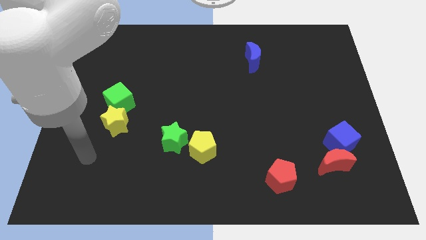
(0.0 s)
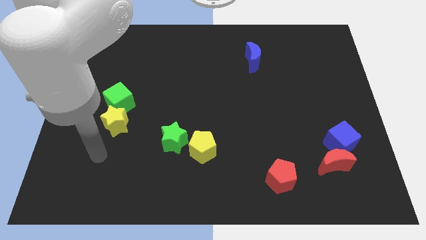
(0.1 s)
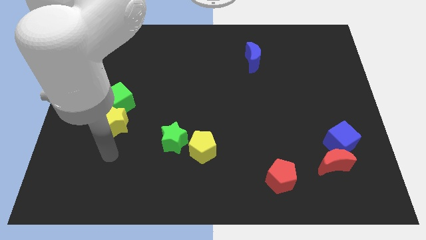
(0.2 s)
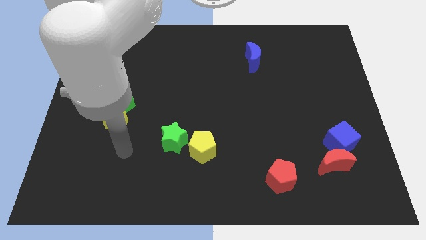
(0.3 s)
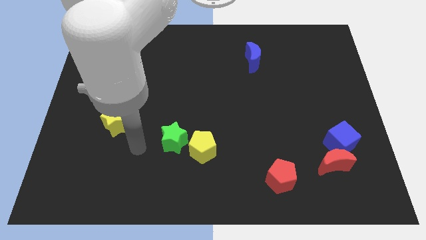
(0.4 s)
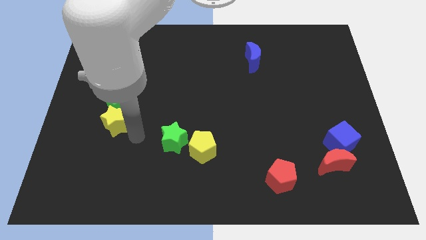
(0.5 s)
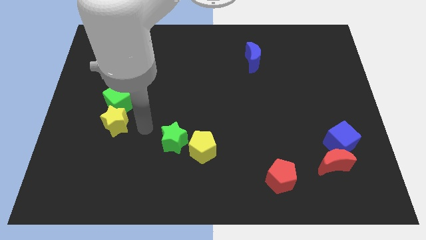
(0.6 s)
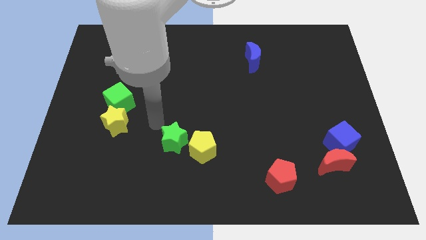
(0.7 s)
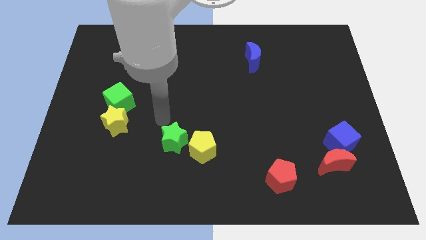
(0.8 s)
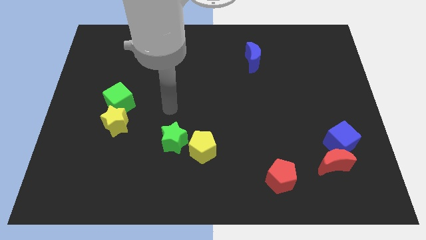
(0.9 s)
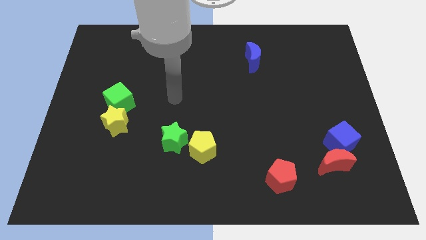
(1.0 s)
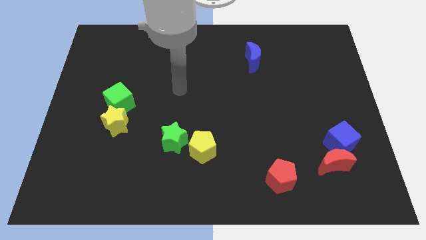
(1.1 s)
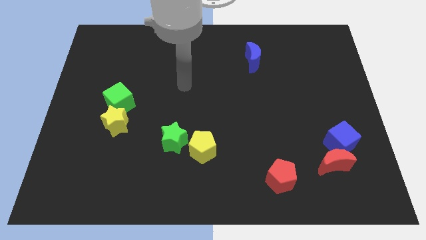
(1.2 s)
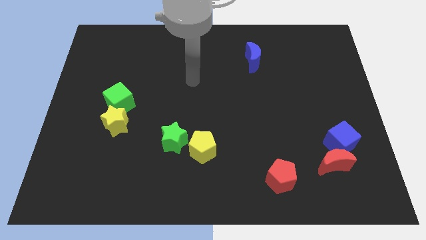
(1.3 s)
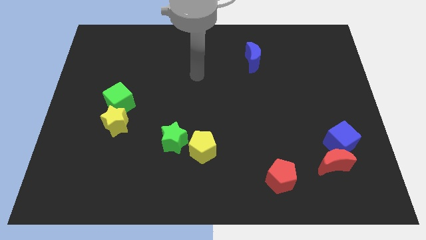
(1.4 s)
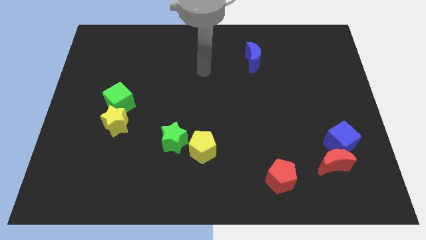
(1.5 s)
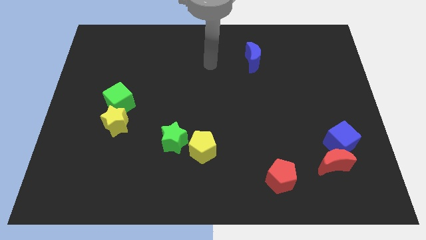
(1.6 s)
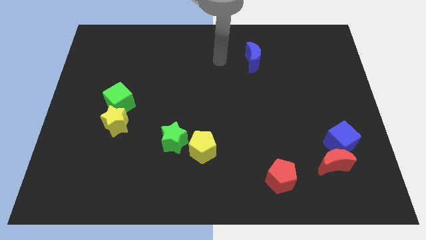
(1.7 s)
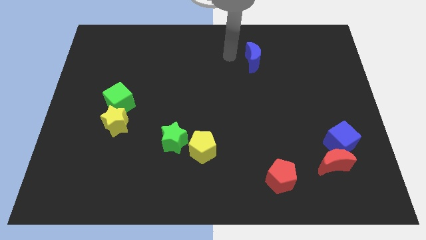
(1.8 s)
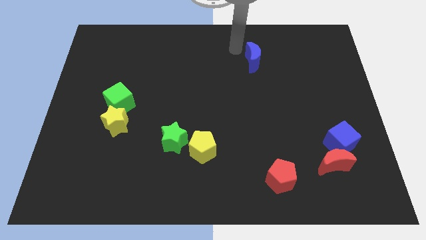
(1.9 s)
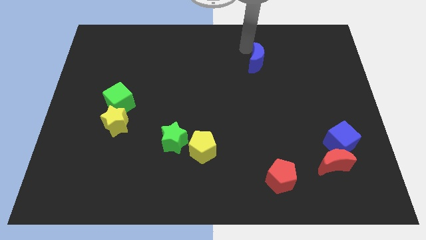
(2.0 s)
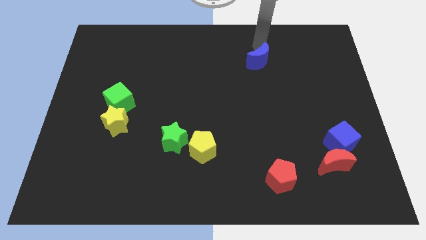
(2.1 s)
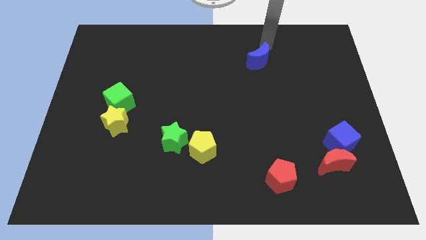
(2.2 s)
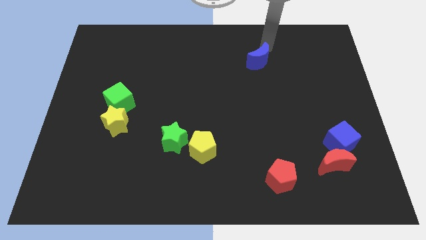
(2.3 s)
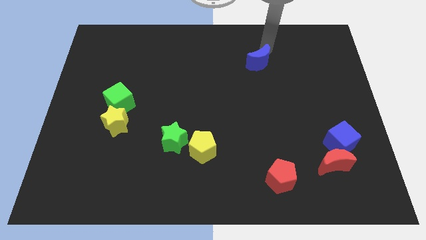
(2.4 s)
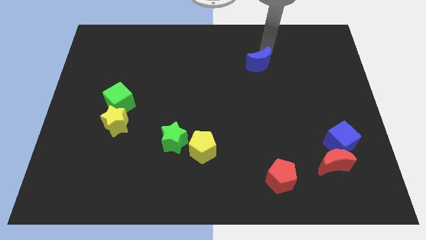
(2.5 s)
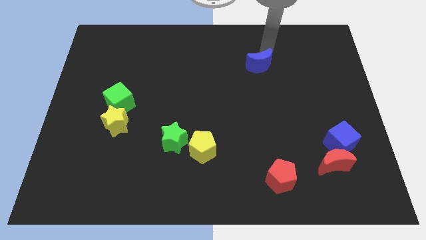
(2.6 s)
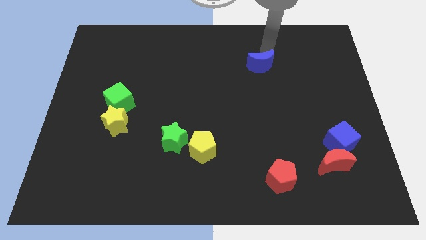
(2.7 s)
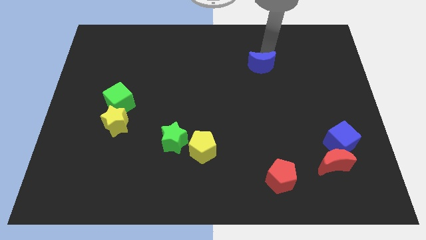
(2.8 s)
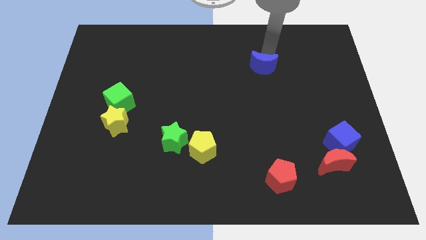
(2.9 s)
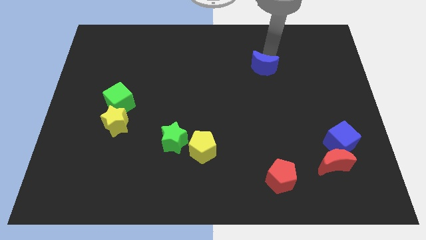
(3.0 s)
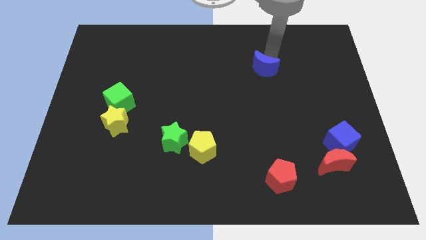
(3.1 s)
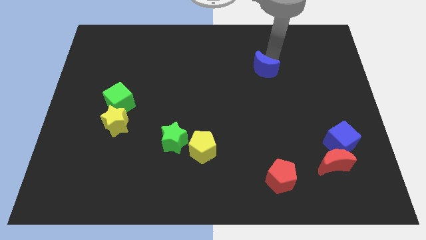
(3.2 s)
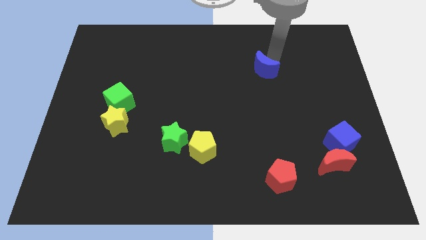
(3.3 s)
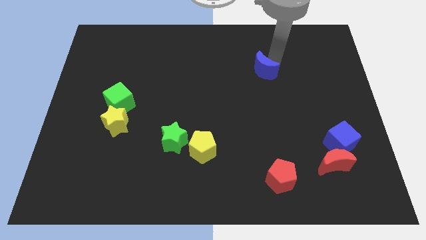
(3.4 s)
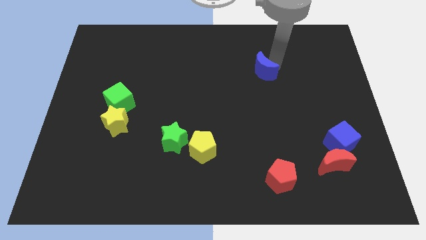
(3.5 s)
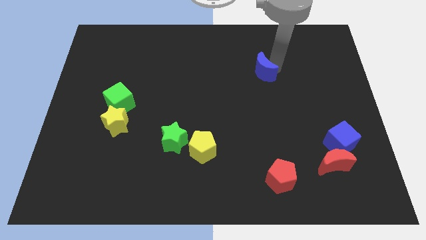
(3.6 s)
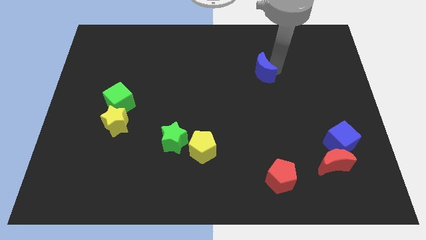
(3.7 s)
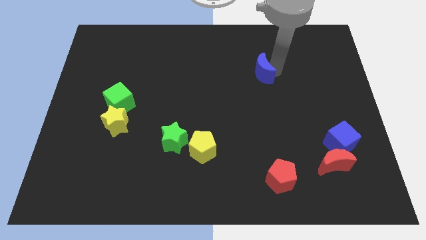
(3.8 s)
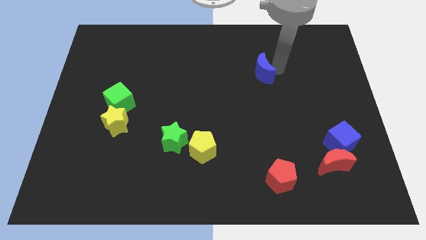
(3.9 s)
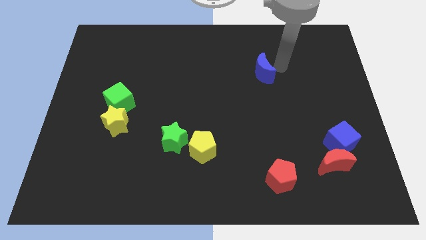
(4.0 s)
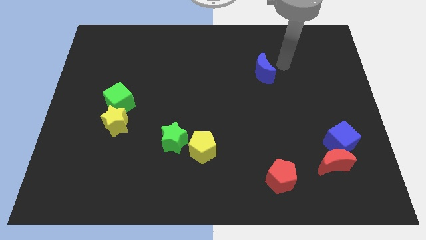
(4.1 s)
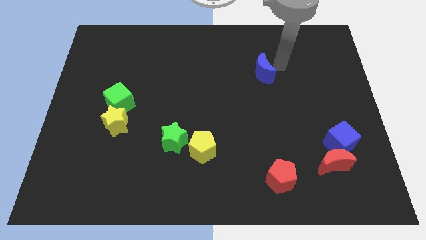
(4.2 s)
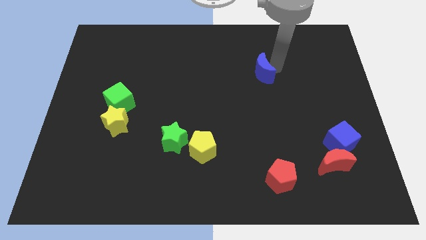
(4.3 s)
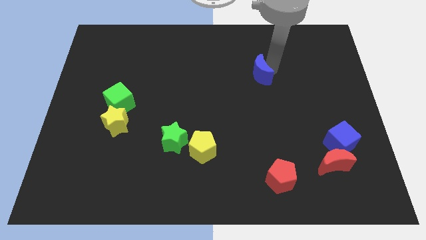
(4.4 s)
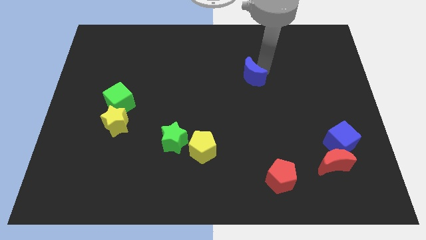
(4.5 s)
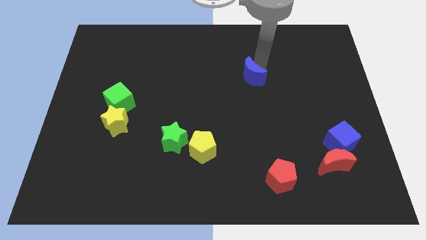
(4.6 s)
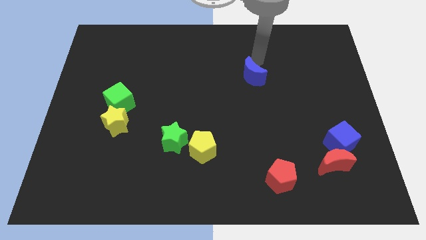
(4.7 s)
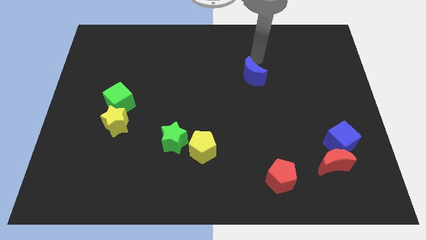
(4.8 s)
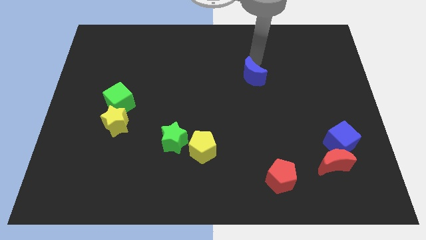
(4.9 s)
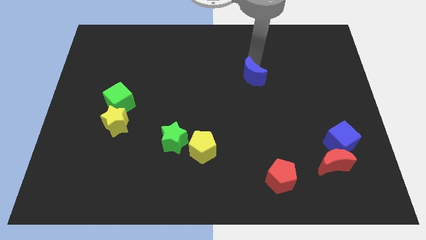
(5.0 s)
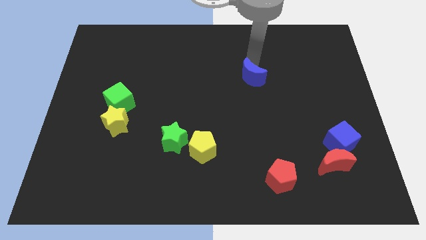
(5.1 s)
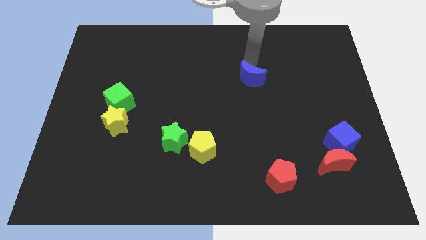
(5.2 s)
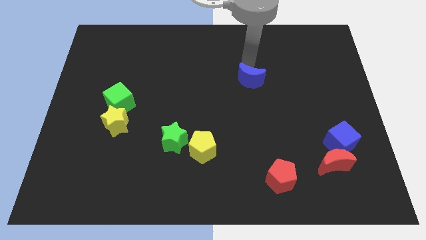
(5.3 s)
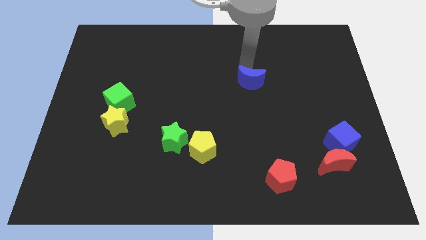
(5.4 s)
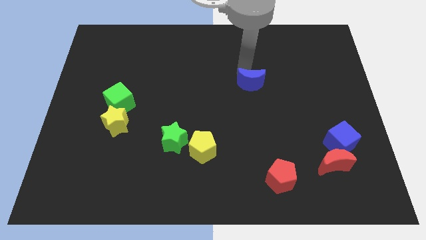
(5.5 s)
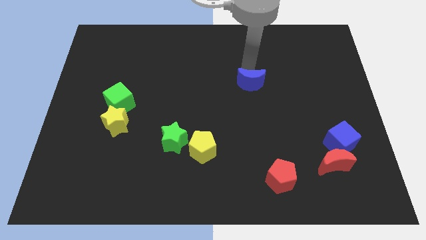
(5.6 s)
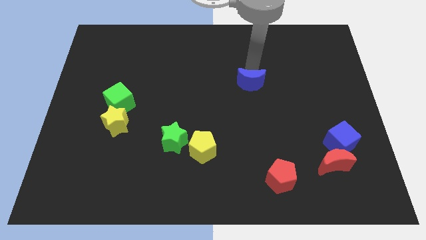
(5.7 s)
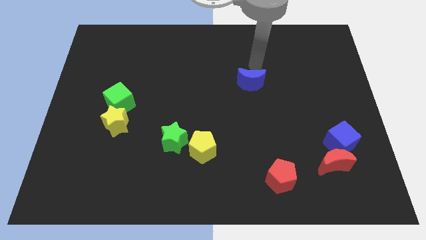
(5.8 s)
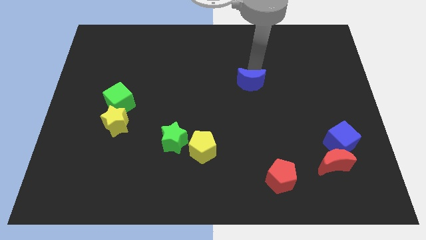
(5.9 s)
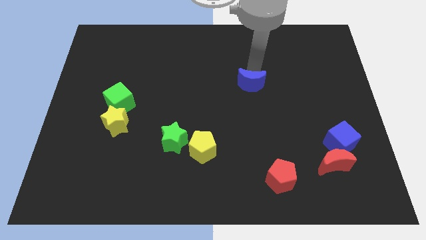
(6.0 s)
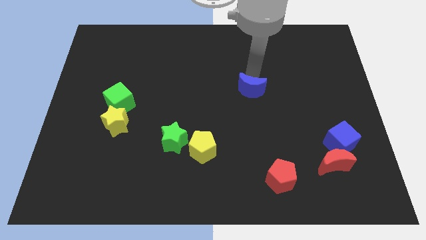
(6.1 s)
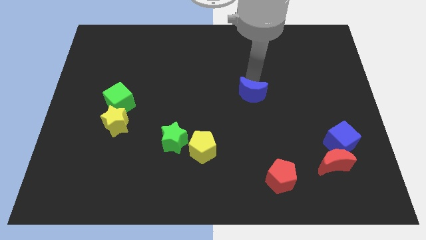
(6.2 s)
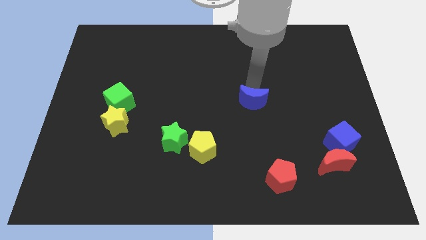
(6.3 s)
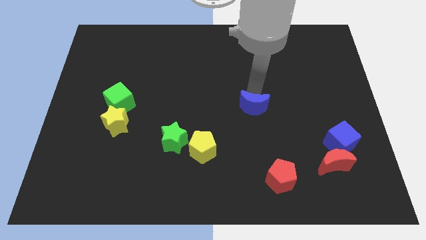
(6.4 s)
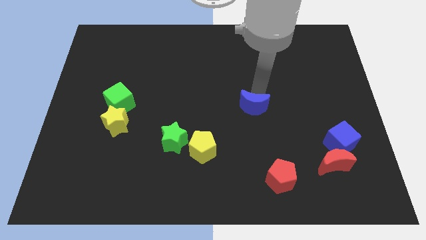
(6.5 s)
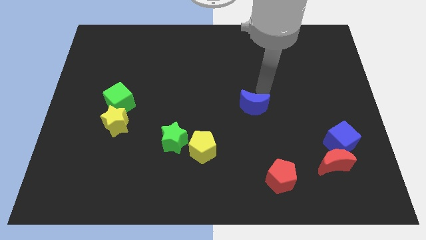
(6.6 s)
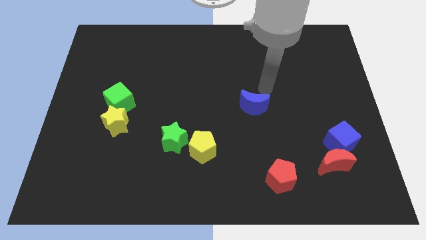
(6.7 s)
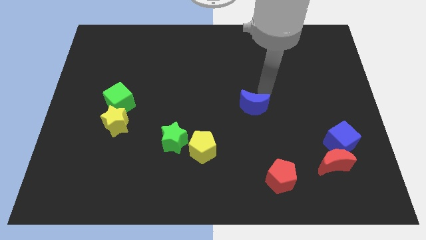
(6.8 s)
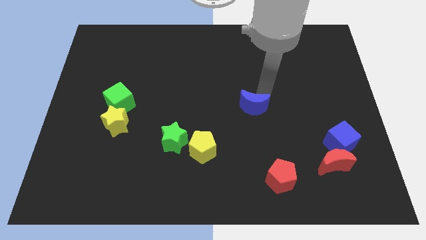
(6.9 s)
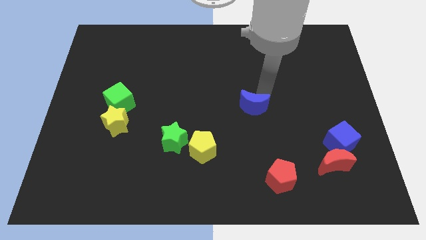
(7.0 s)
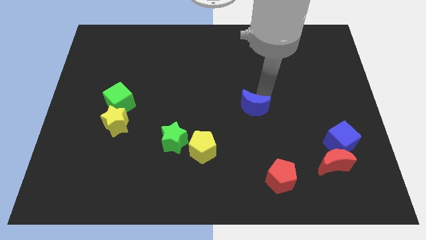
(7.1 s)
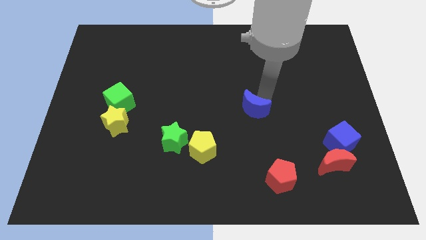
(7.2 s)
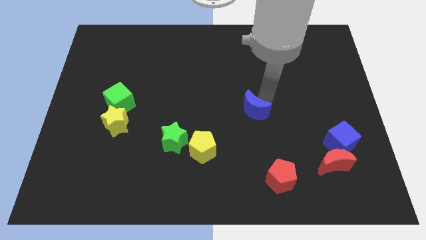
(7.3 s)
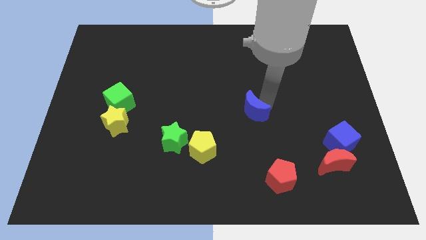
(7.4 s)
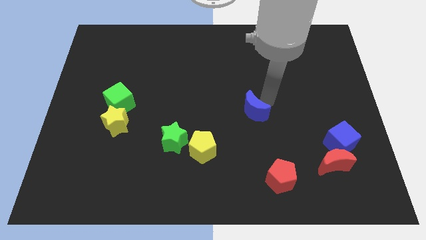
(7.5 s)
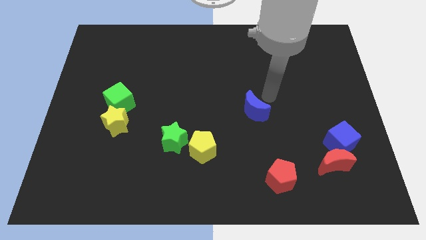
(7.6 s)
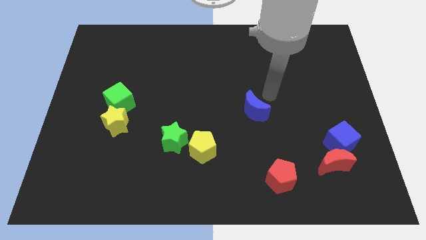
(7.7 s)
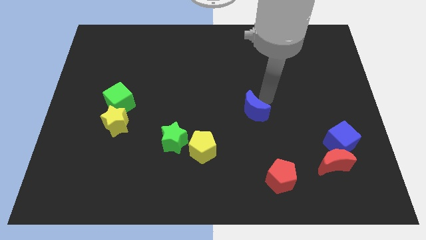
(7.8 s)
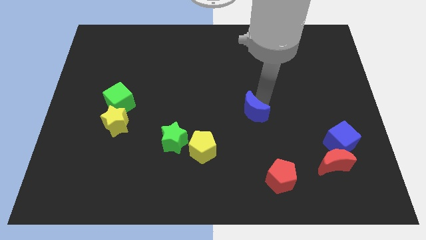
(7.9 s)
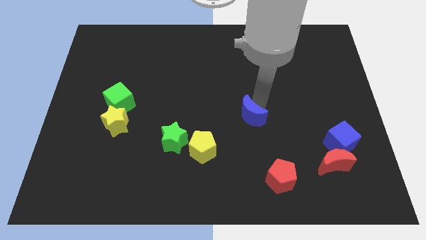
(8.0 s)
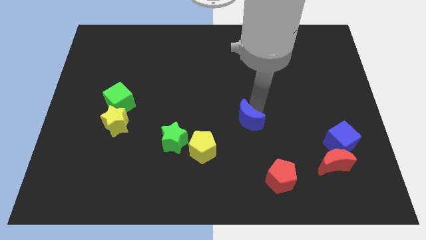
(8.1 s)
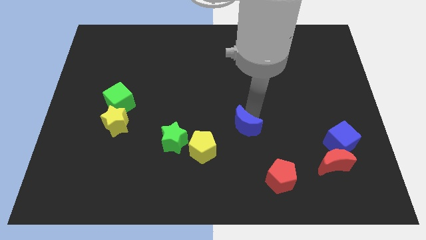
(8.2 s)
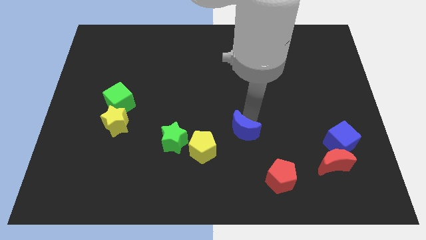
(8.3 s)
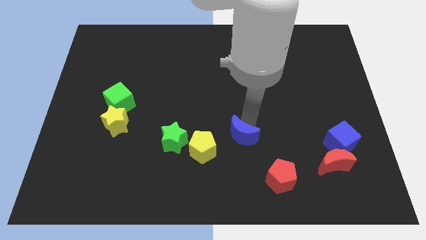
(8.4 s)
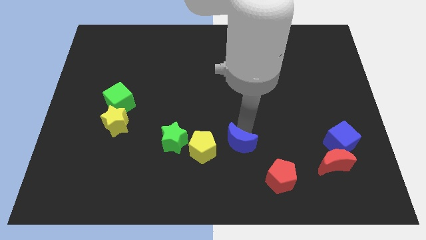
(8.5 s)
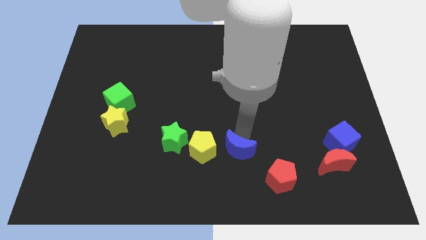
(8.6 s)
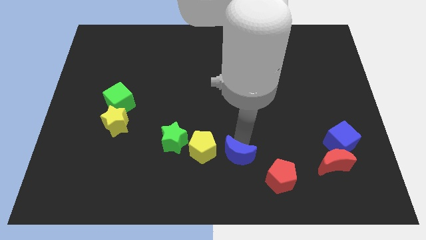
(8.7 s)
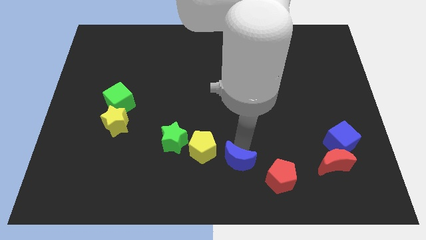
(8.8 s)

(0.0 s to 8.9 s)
push the blue moon to the bottom
